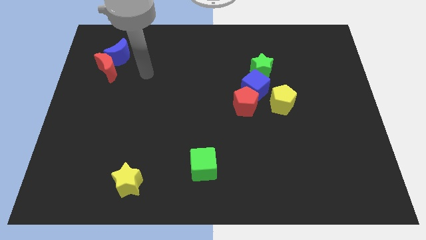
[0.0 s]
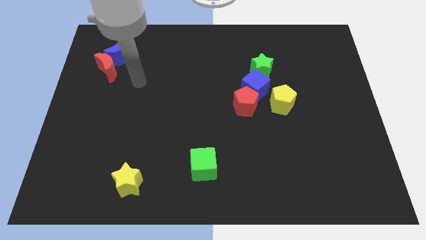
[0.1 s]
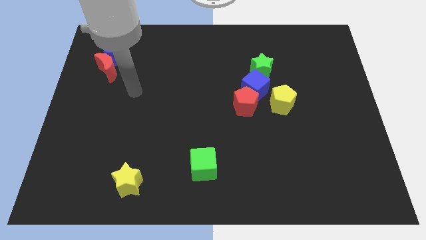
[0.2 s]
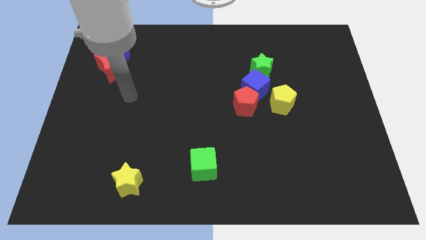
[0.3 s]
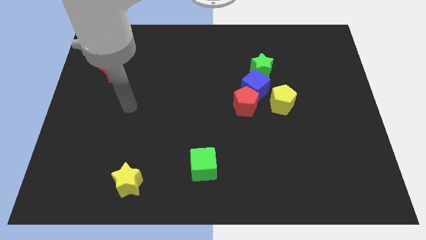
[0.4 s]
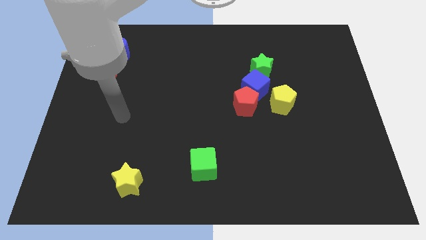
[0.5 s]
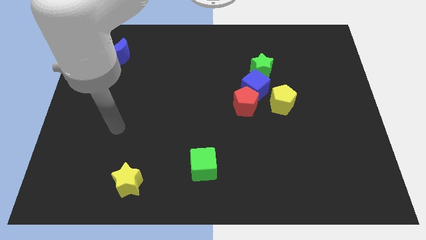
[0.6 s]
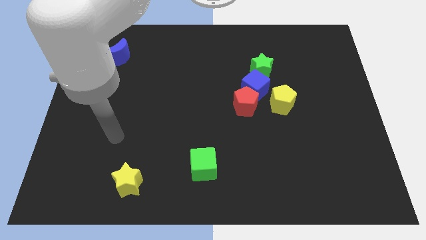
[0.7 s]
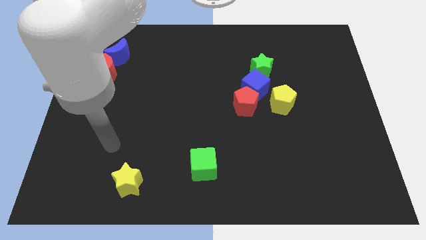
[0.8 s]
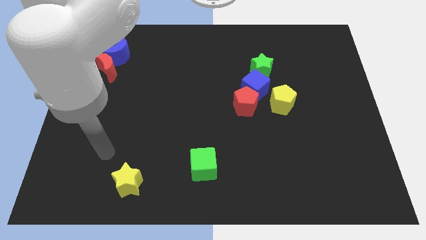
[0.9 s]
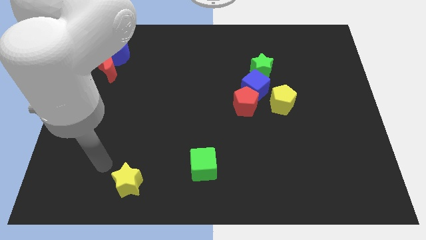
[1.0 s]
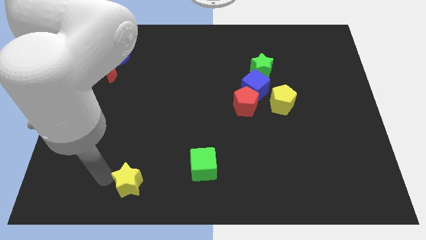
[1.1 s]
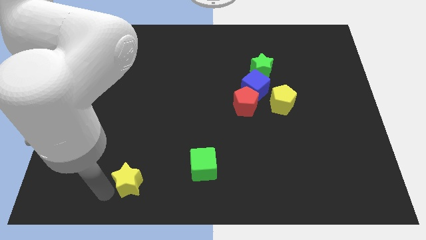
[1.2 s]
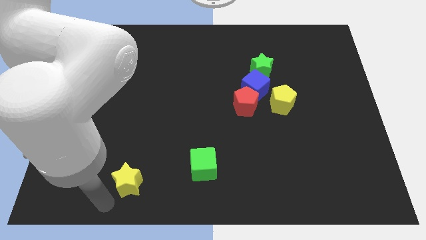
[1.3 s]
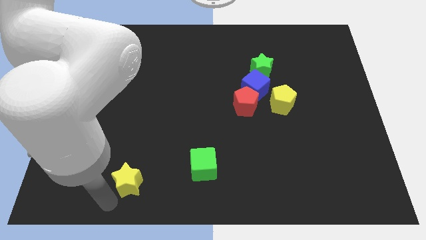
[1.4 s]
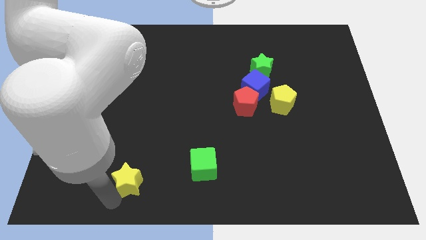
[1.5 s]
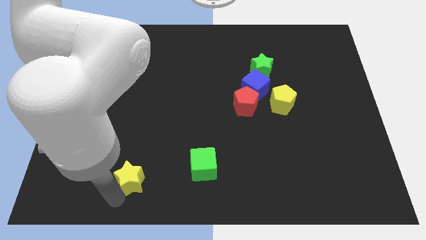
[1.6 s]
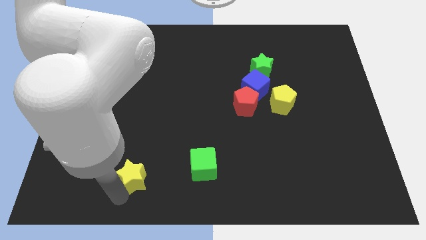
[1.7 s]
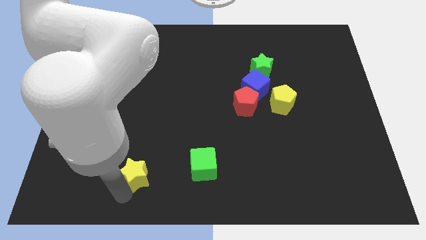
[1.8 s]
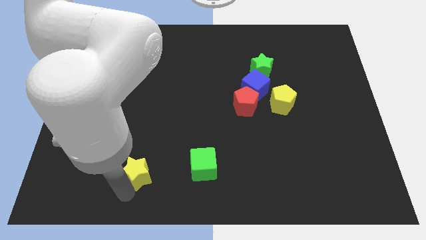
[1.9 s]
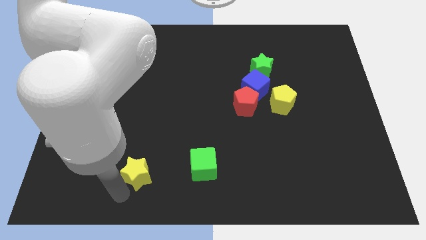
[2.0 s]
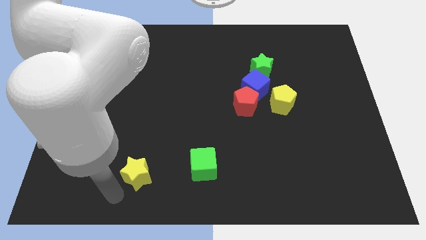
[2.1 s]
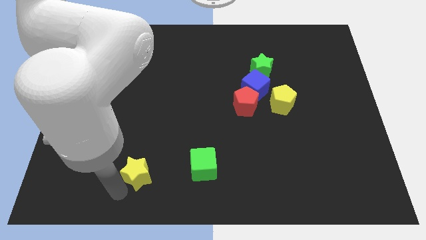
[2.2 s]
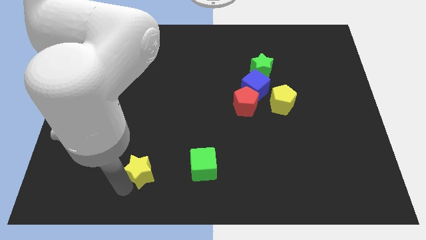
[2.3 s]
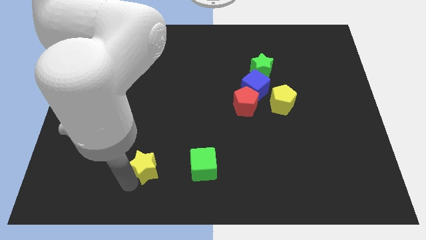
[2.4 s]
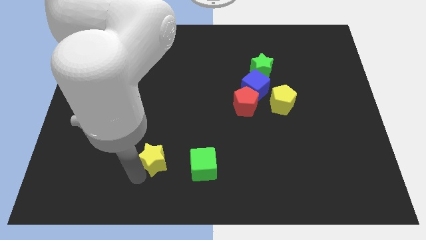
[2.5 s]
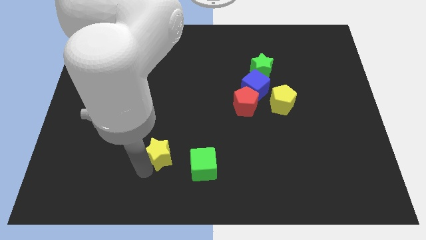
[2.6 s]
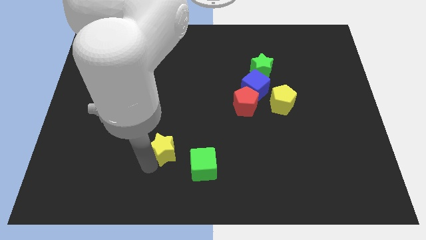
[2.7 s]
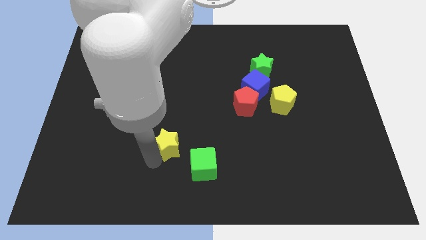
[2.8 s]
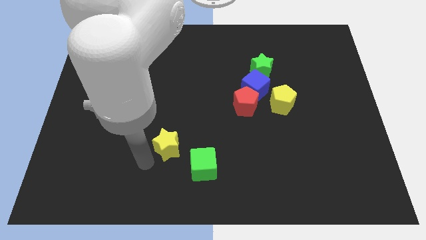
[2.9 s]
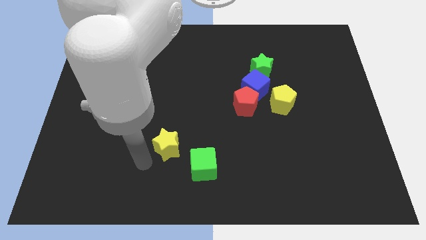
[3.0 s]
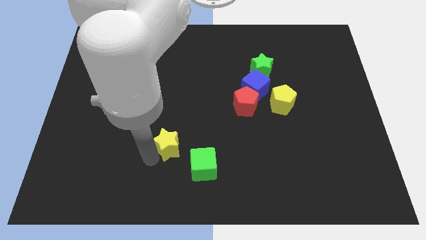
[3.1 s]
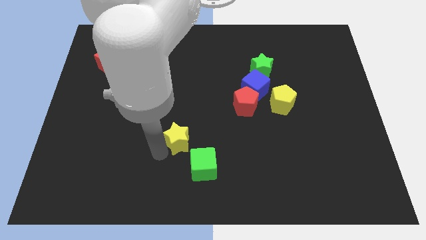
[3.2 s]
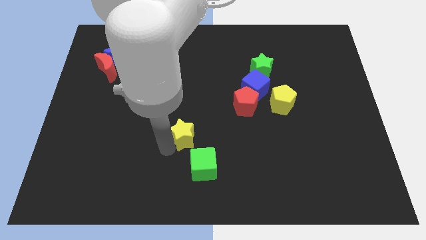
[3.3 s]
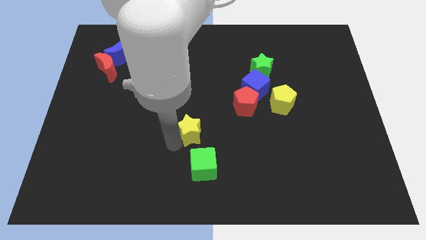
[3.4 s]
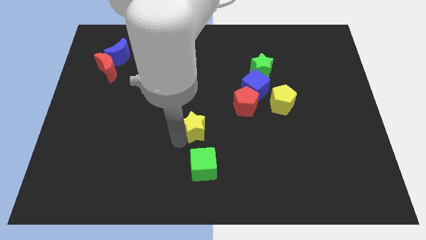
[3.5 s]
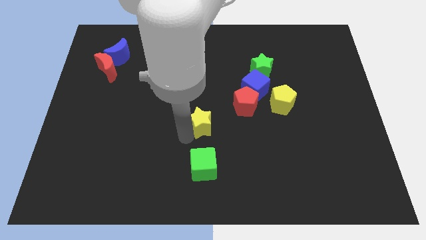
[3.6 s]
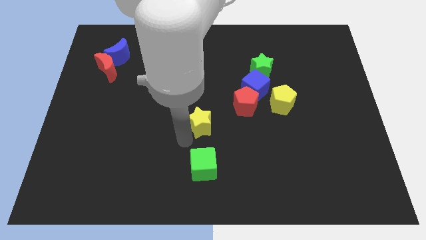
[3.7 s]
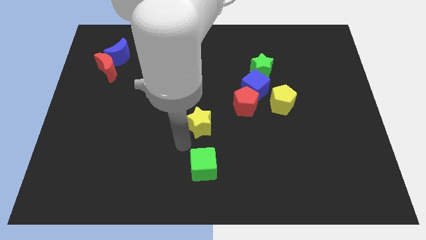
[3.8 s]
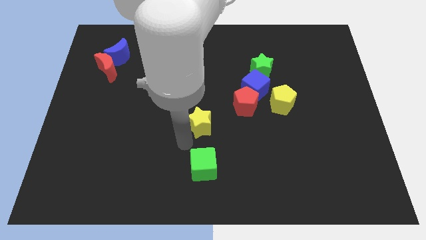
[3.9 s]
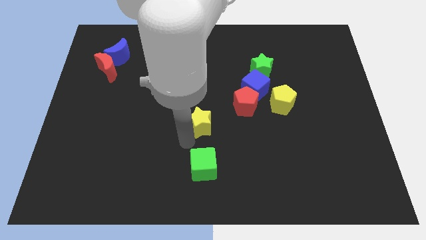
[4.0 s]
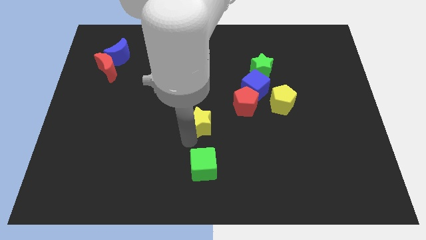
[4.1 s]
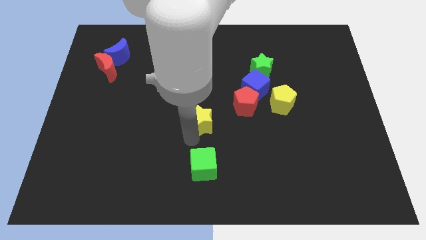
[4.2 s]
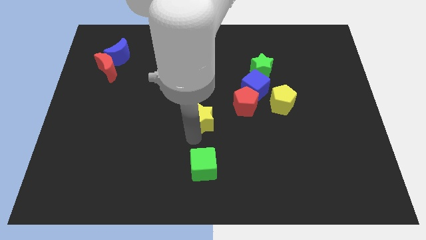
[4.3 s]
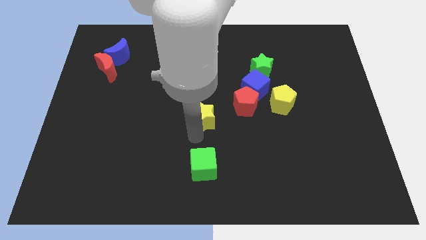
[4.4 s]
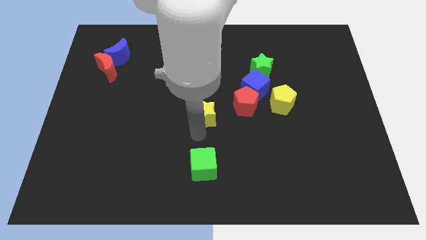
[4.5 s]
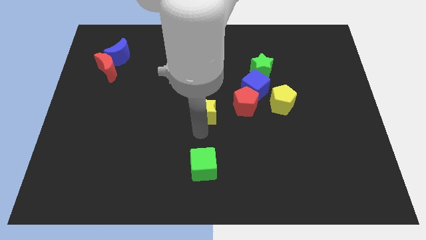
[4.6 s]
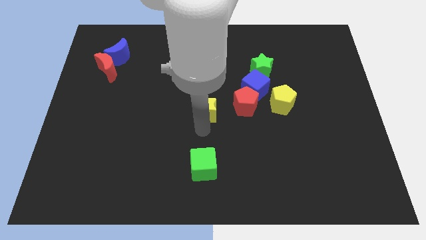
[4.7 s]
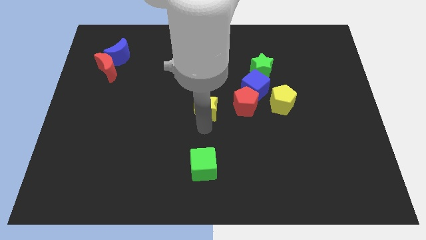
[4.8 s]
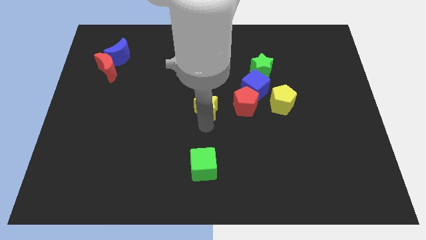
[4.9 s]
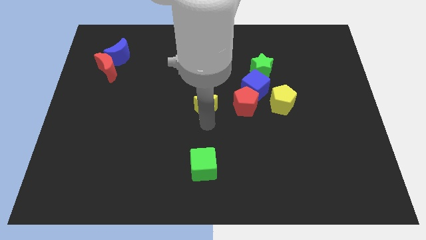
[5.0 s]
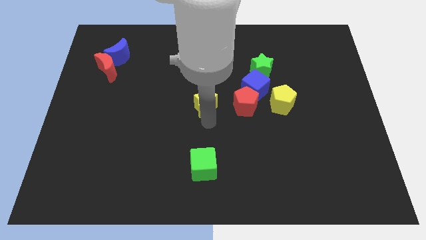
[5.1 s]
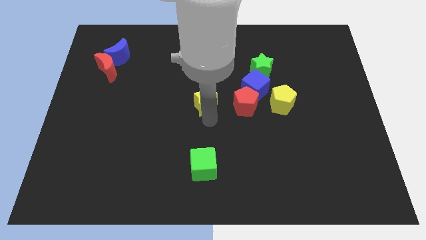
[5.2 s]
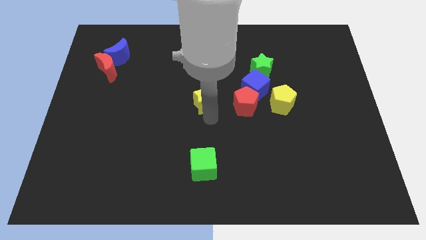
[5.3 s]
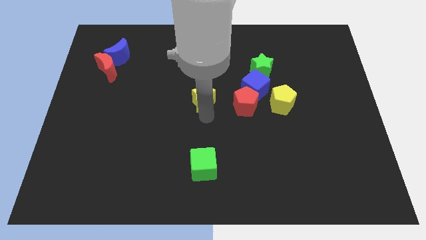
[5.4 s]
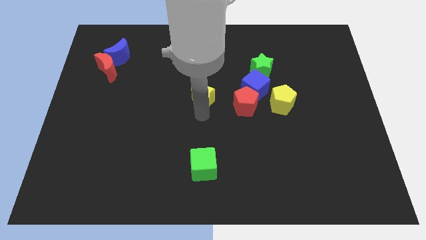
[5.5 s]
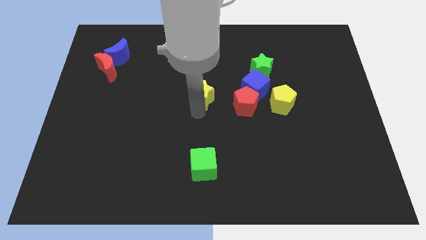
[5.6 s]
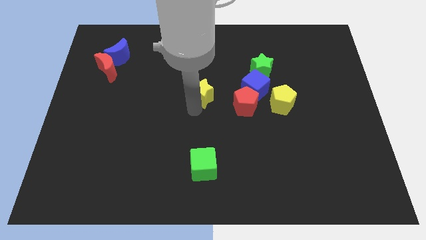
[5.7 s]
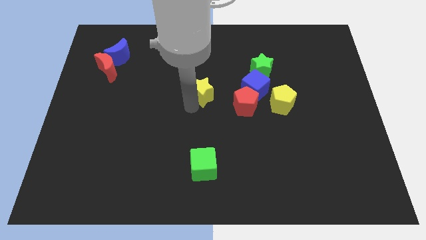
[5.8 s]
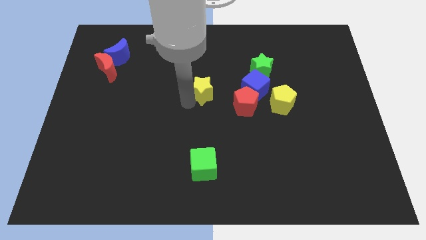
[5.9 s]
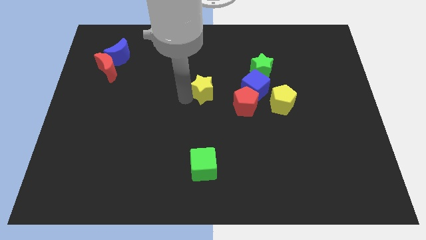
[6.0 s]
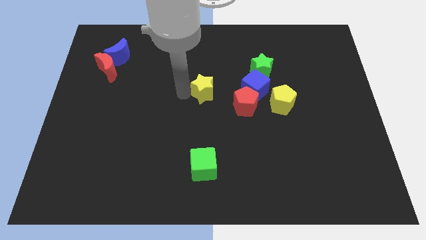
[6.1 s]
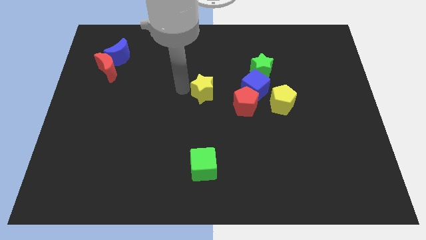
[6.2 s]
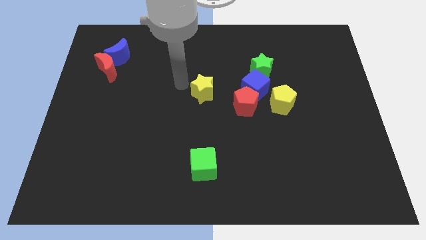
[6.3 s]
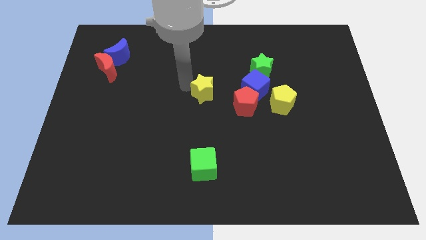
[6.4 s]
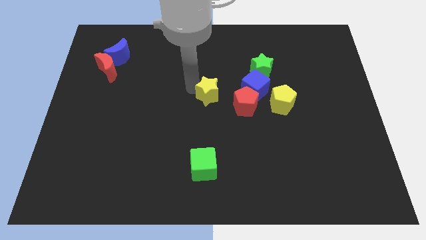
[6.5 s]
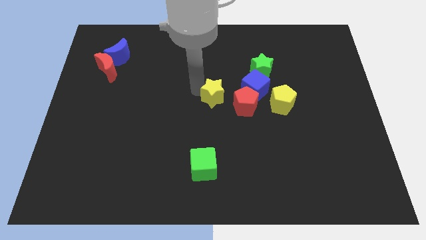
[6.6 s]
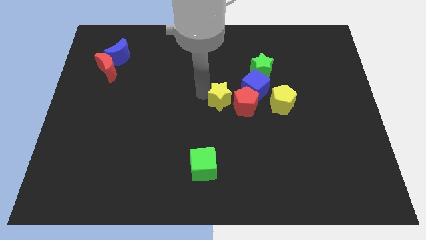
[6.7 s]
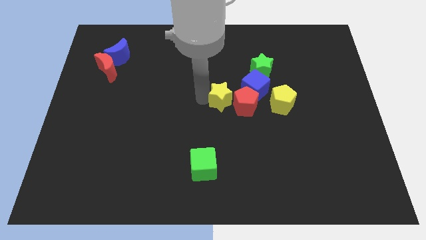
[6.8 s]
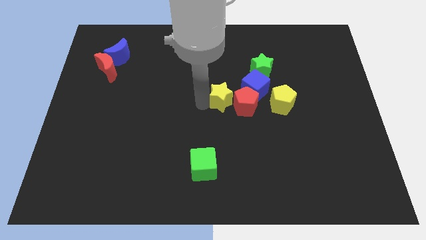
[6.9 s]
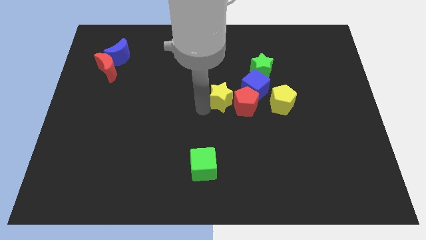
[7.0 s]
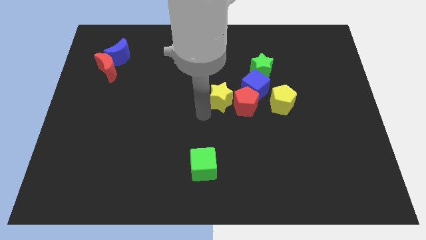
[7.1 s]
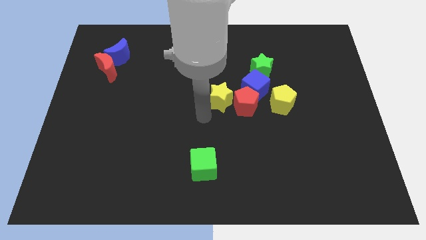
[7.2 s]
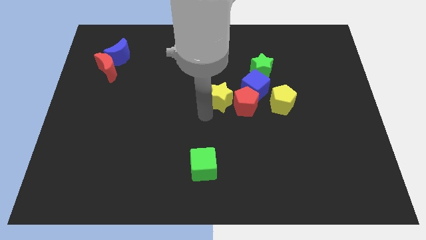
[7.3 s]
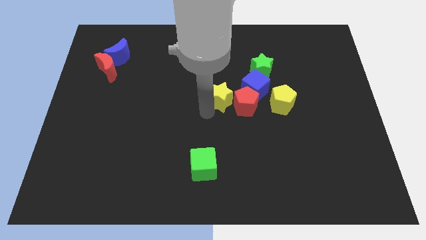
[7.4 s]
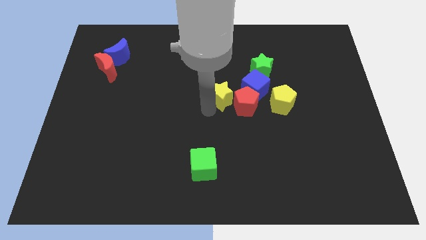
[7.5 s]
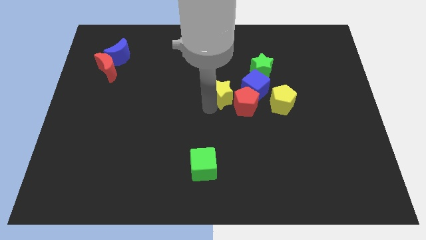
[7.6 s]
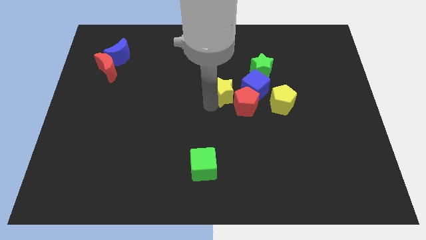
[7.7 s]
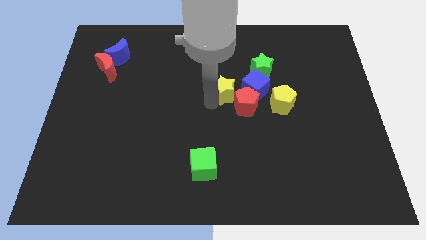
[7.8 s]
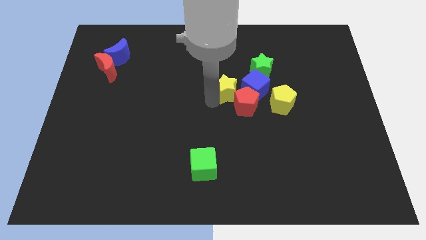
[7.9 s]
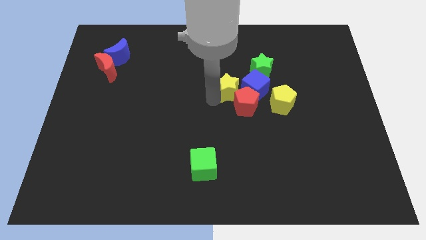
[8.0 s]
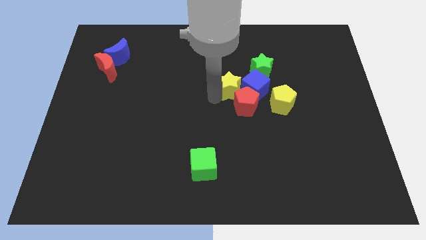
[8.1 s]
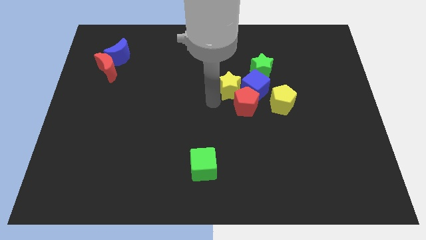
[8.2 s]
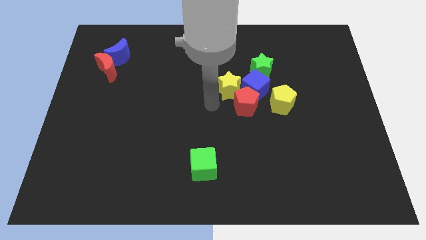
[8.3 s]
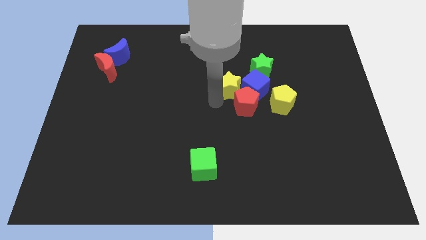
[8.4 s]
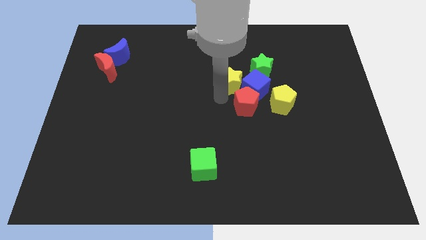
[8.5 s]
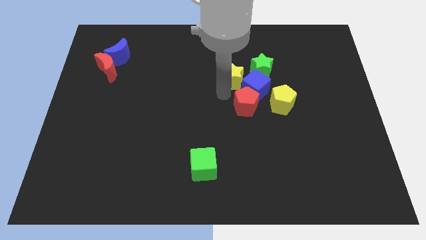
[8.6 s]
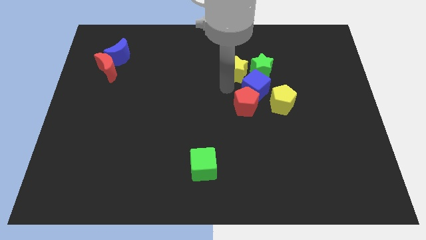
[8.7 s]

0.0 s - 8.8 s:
push the yellow star close to the green star
